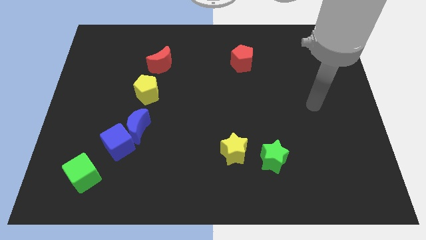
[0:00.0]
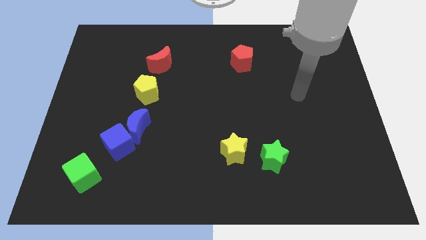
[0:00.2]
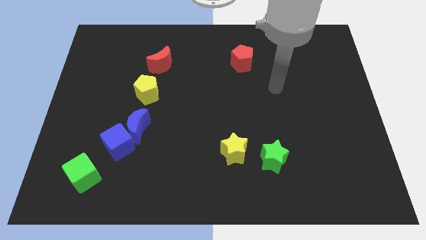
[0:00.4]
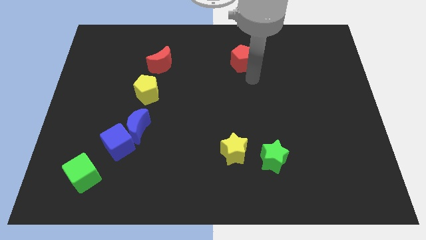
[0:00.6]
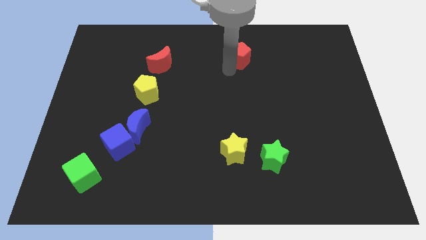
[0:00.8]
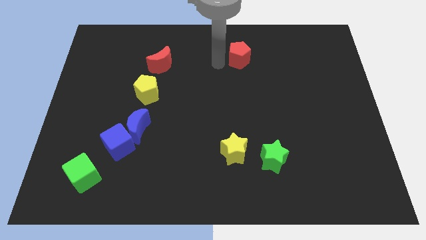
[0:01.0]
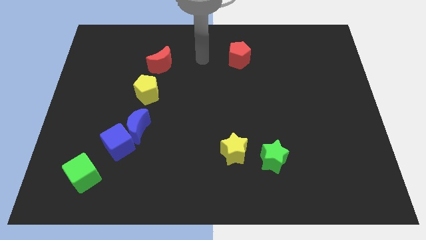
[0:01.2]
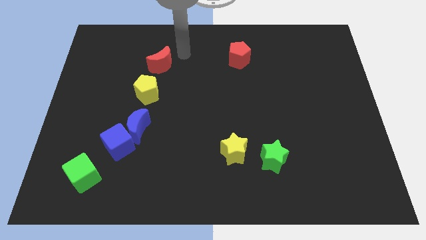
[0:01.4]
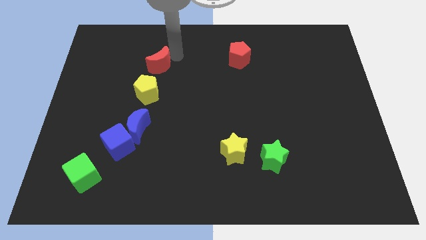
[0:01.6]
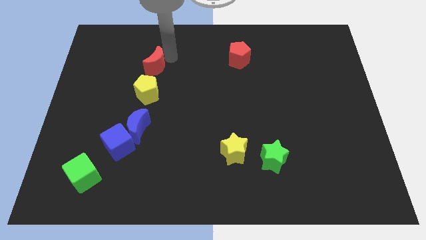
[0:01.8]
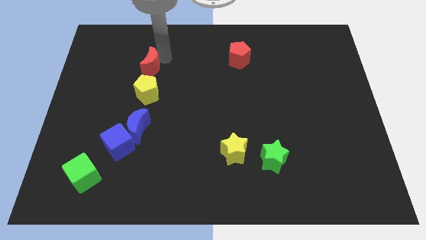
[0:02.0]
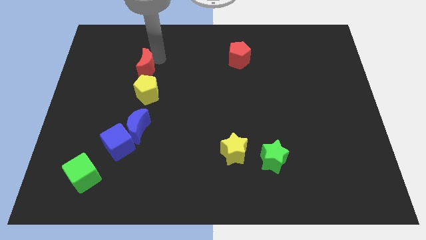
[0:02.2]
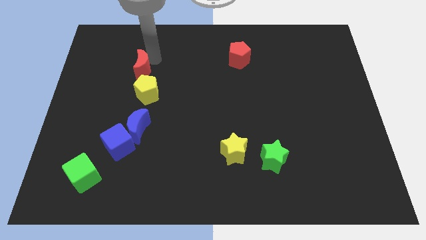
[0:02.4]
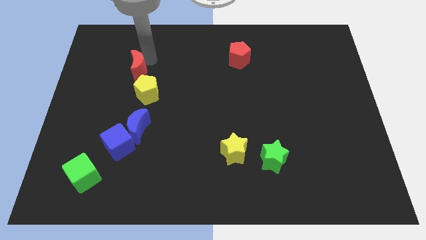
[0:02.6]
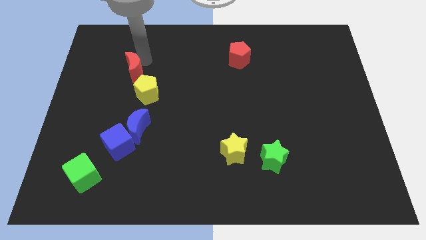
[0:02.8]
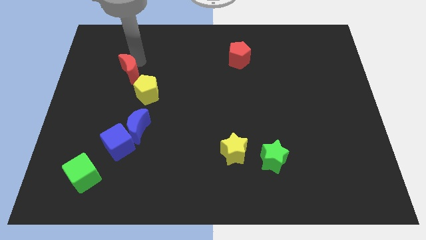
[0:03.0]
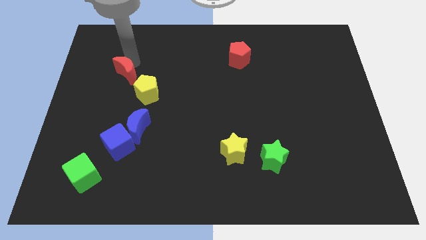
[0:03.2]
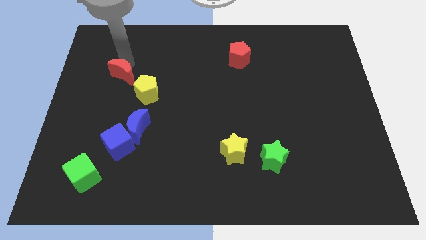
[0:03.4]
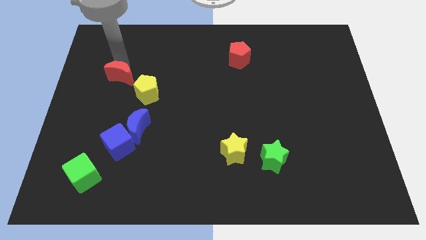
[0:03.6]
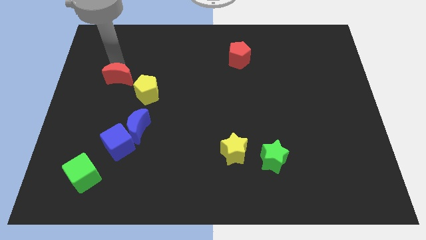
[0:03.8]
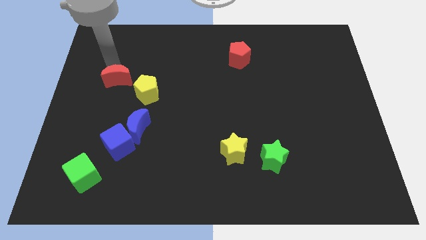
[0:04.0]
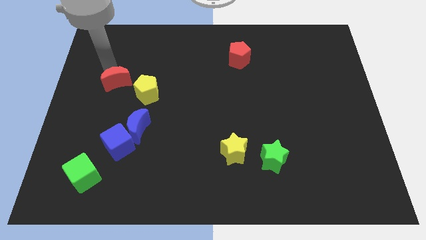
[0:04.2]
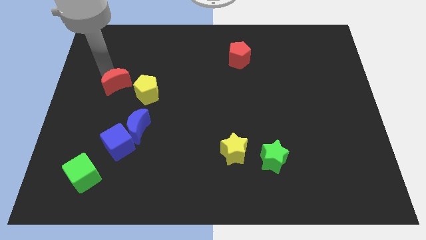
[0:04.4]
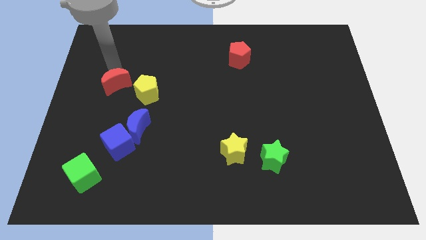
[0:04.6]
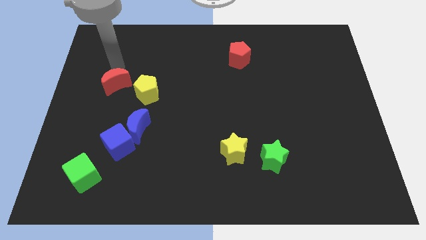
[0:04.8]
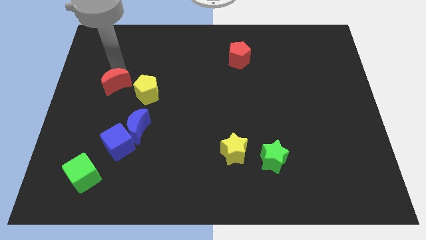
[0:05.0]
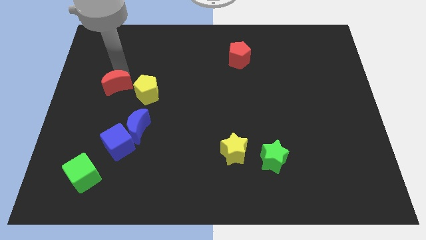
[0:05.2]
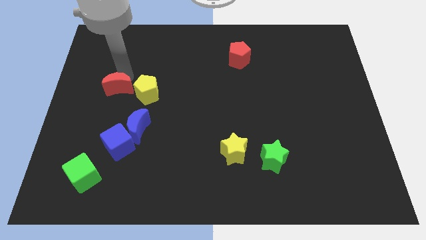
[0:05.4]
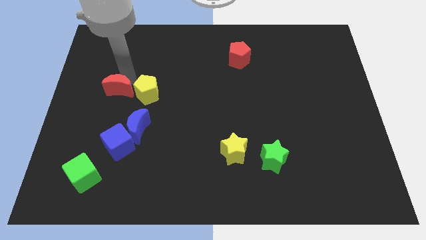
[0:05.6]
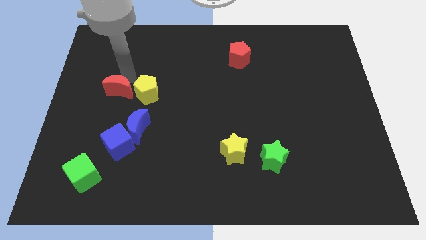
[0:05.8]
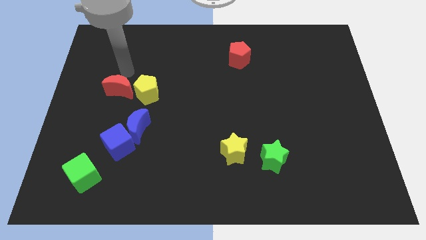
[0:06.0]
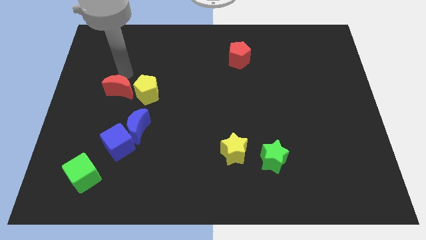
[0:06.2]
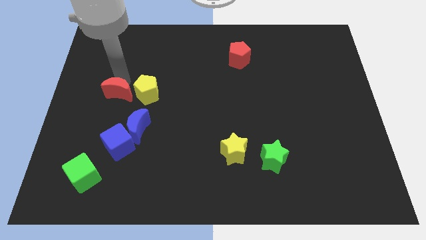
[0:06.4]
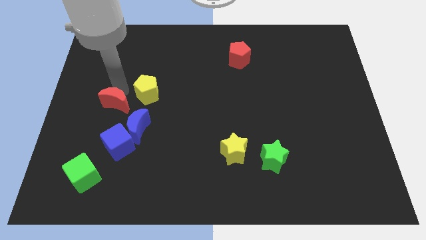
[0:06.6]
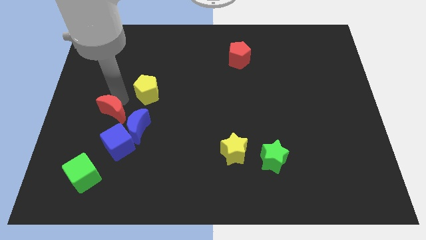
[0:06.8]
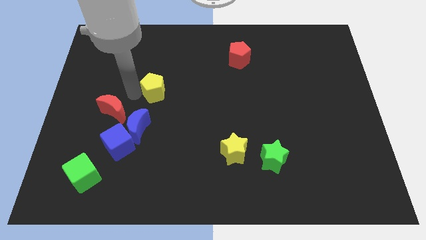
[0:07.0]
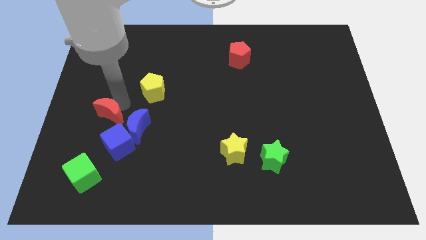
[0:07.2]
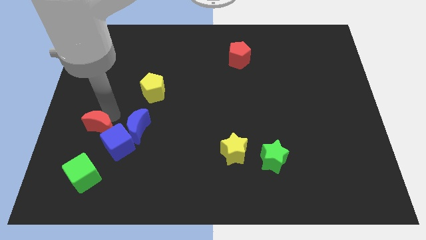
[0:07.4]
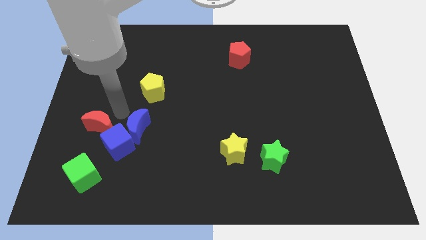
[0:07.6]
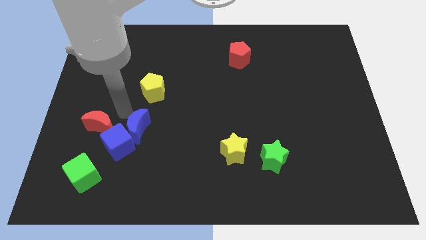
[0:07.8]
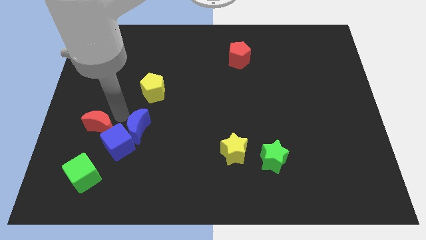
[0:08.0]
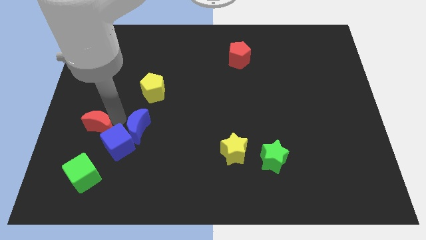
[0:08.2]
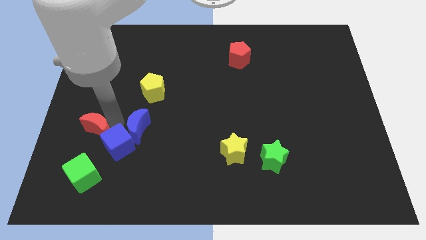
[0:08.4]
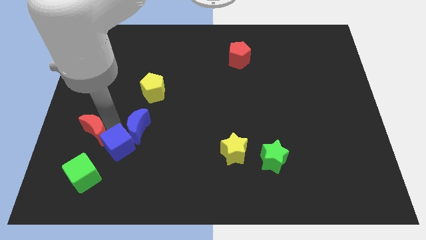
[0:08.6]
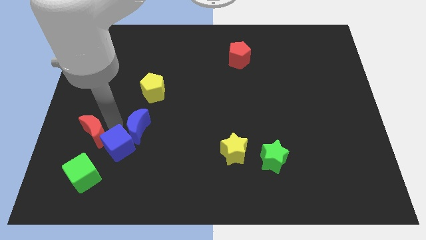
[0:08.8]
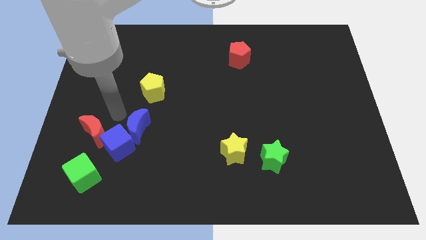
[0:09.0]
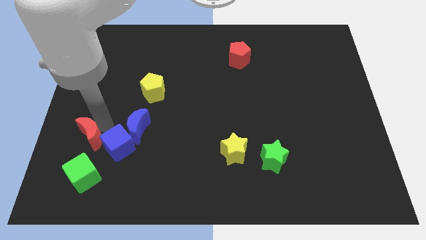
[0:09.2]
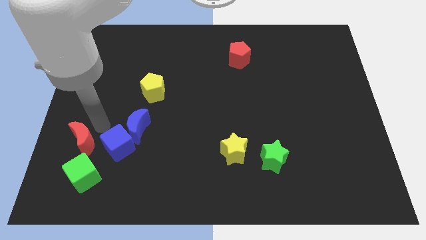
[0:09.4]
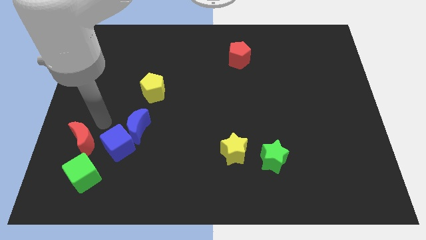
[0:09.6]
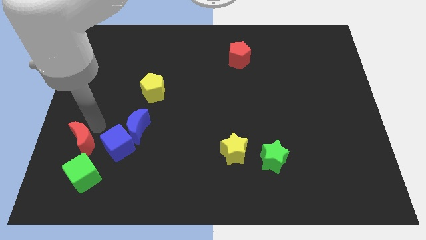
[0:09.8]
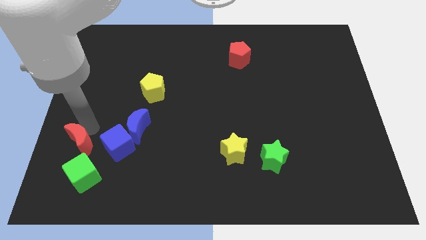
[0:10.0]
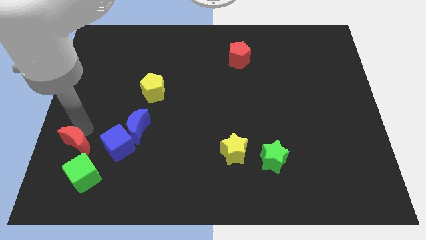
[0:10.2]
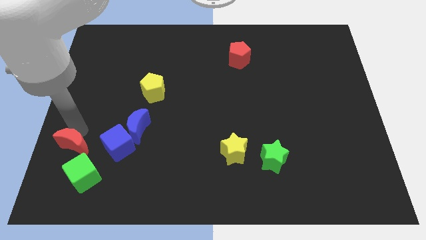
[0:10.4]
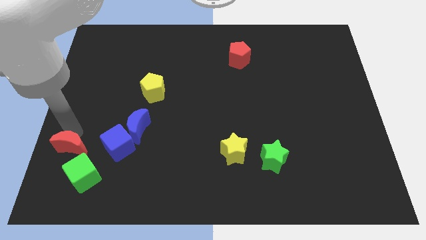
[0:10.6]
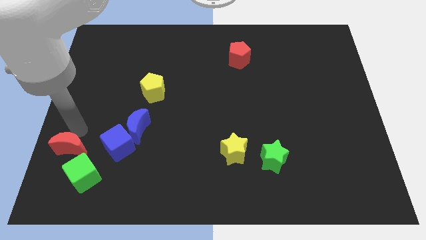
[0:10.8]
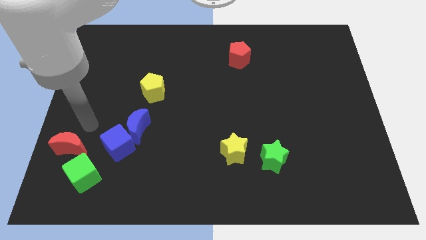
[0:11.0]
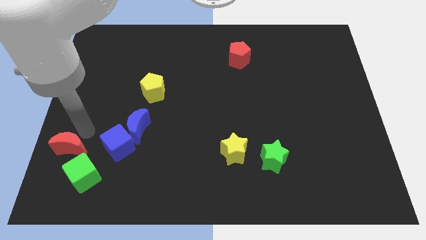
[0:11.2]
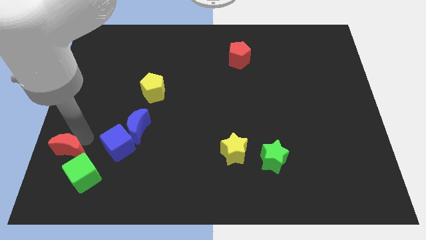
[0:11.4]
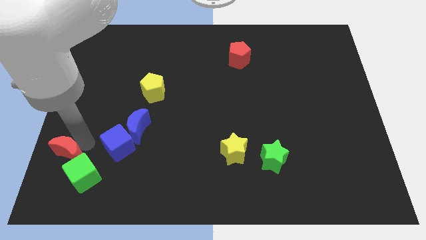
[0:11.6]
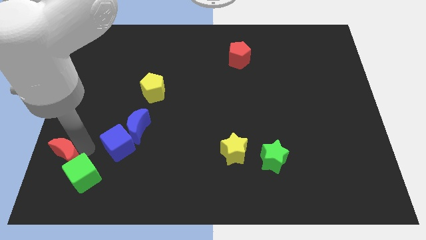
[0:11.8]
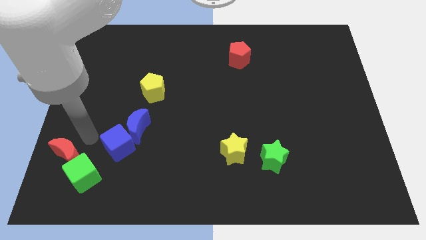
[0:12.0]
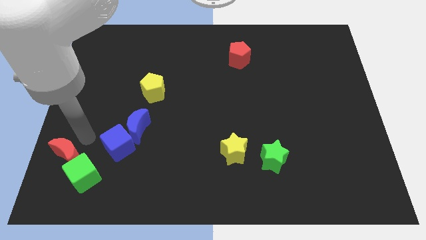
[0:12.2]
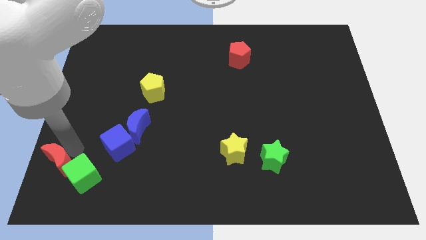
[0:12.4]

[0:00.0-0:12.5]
push the red moon to the bottom left
